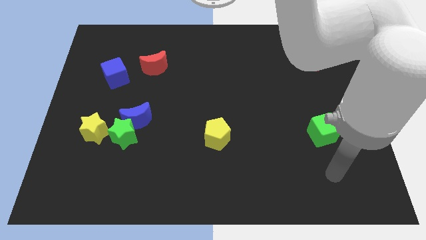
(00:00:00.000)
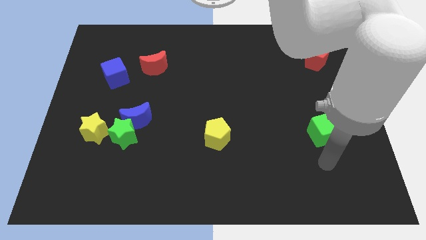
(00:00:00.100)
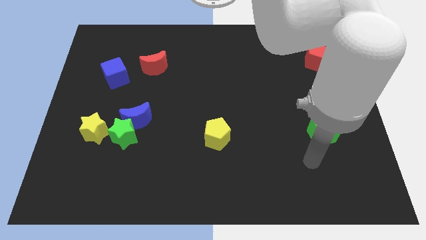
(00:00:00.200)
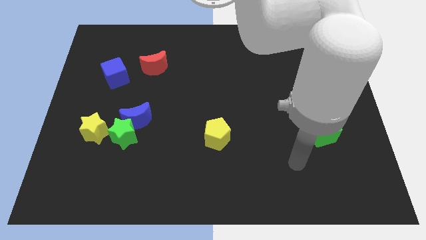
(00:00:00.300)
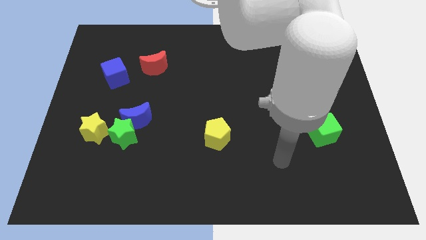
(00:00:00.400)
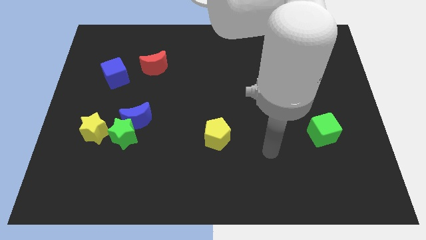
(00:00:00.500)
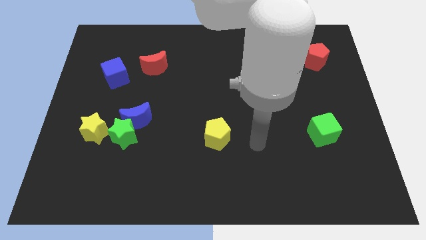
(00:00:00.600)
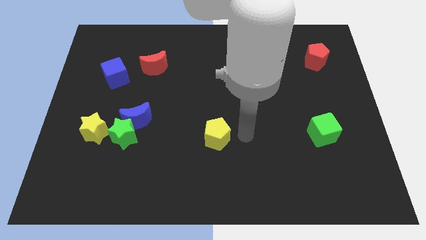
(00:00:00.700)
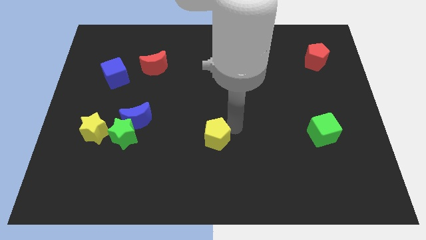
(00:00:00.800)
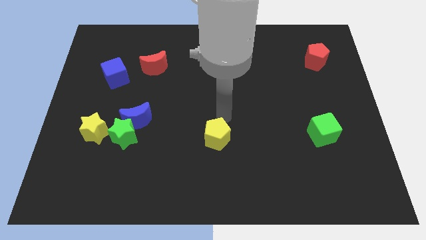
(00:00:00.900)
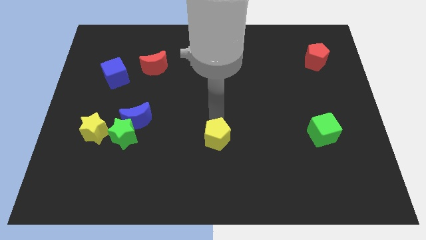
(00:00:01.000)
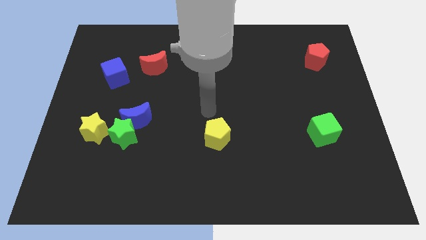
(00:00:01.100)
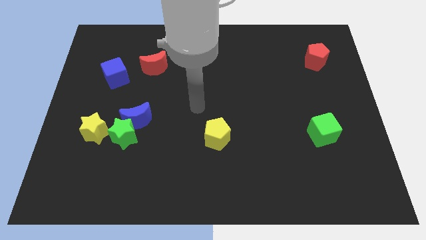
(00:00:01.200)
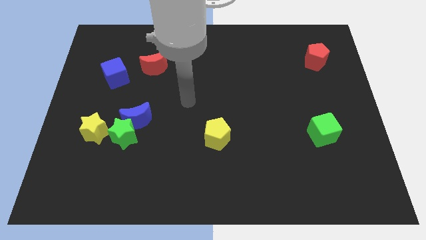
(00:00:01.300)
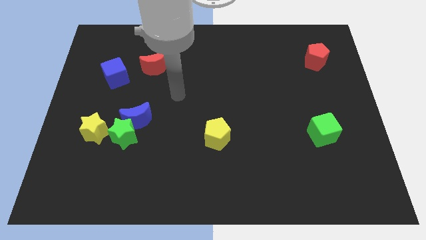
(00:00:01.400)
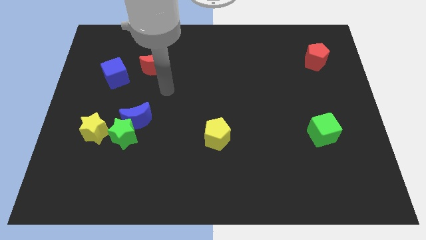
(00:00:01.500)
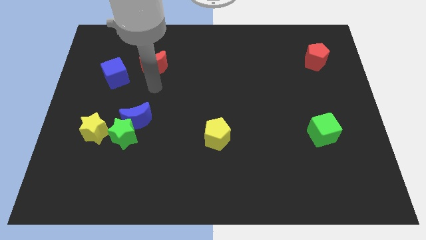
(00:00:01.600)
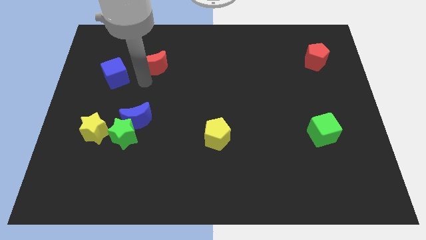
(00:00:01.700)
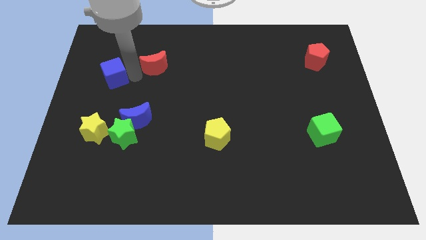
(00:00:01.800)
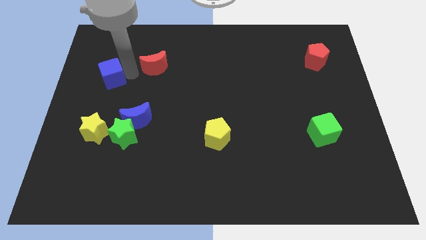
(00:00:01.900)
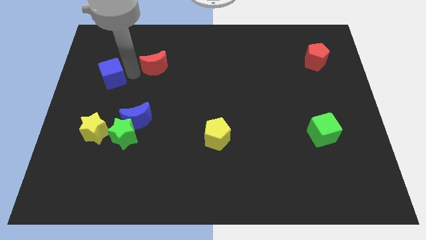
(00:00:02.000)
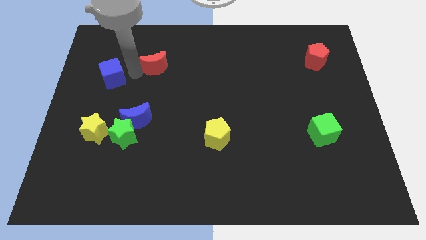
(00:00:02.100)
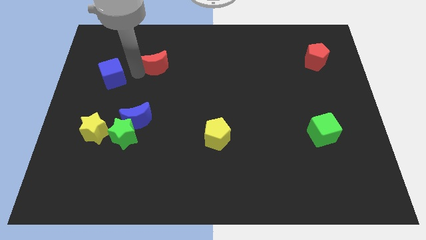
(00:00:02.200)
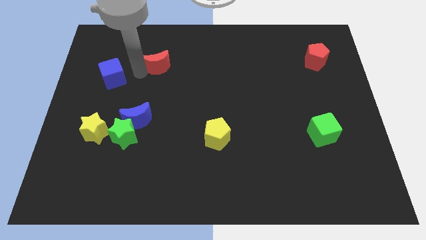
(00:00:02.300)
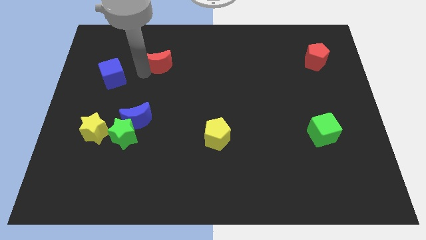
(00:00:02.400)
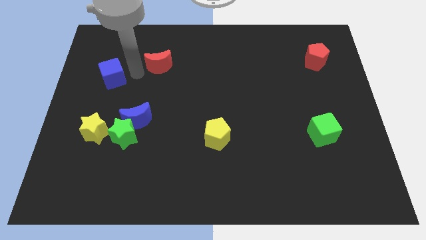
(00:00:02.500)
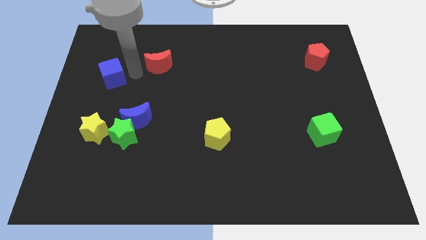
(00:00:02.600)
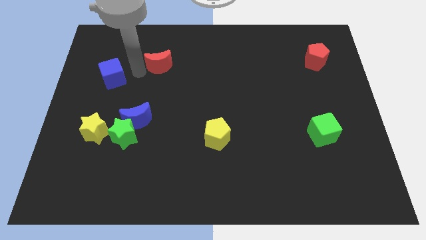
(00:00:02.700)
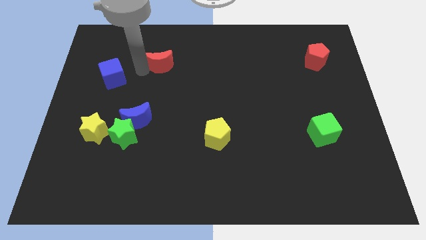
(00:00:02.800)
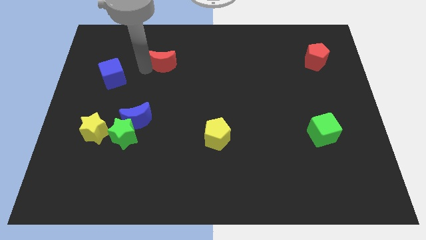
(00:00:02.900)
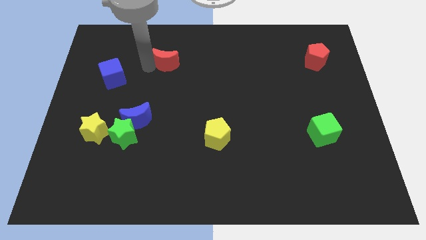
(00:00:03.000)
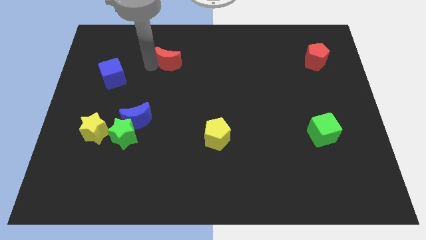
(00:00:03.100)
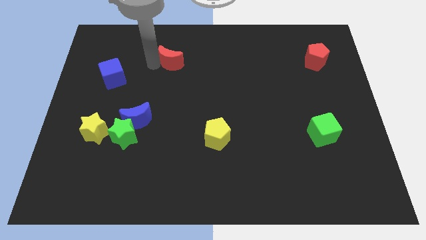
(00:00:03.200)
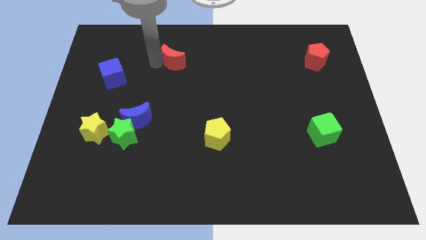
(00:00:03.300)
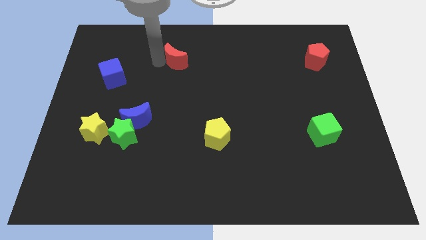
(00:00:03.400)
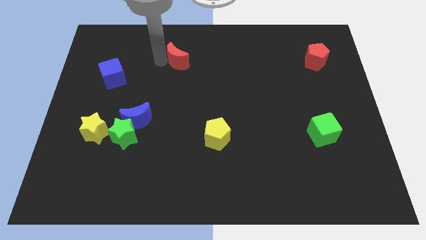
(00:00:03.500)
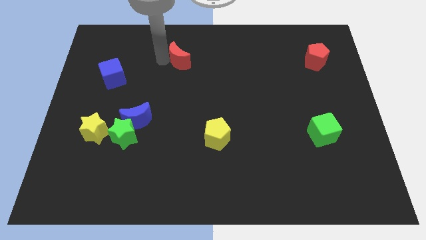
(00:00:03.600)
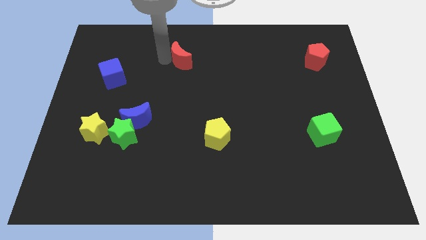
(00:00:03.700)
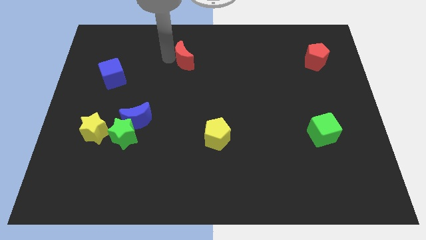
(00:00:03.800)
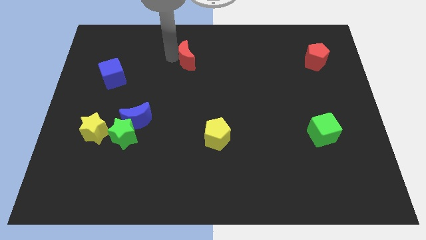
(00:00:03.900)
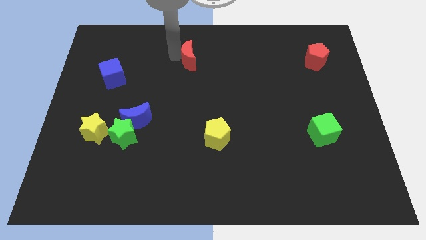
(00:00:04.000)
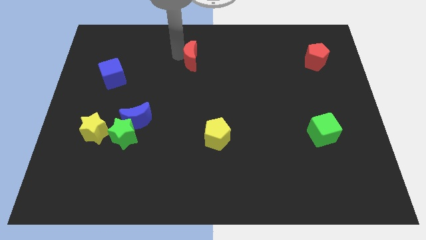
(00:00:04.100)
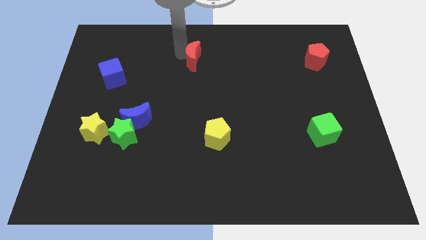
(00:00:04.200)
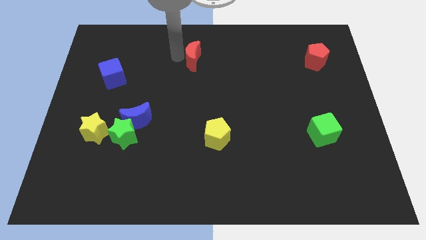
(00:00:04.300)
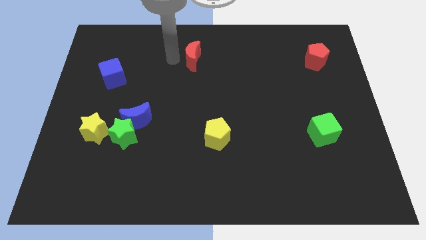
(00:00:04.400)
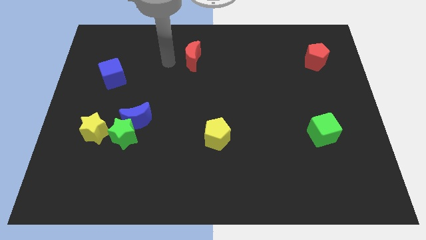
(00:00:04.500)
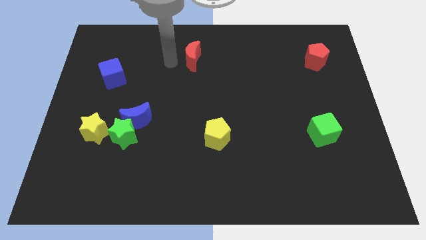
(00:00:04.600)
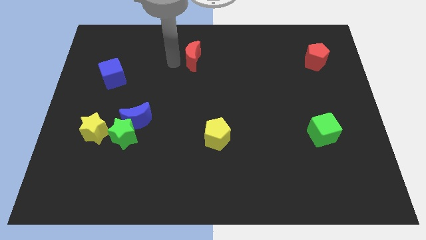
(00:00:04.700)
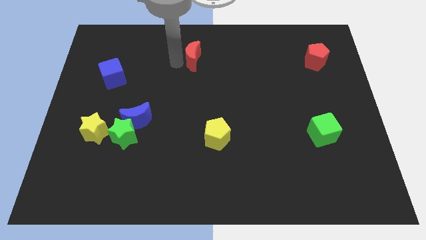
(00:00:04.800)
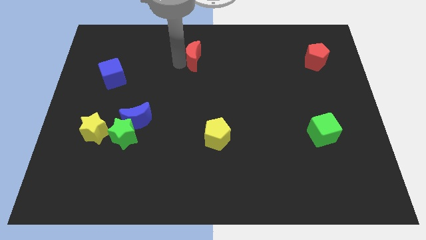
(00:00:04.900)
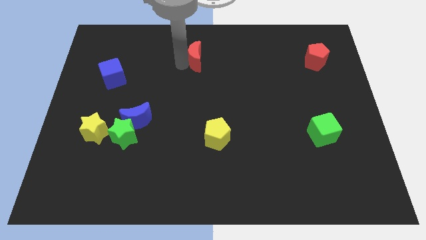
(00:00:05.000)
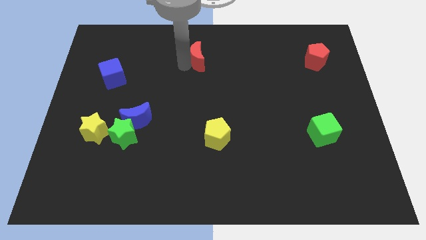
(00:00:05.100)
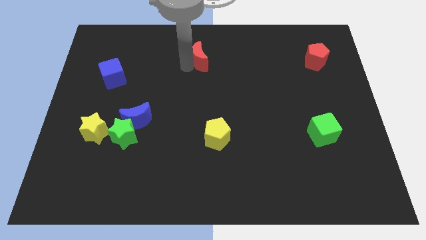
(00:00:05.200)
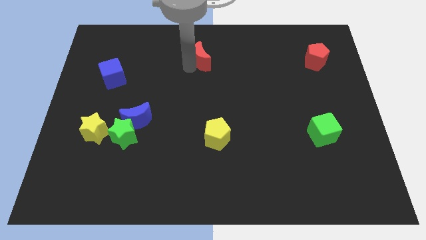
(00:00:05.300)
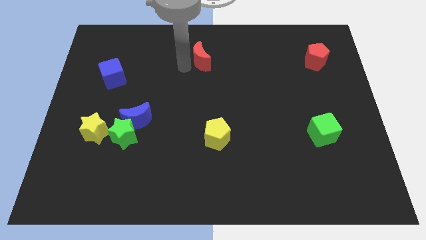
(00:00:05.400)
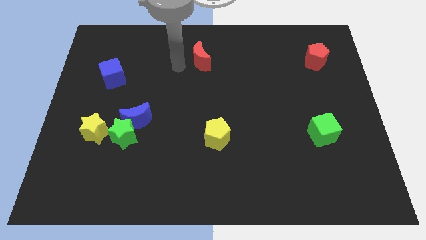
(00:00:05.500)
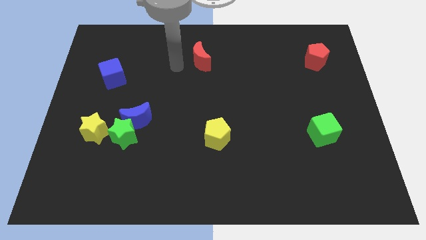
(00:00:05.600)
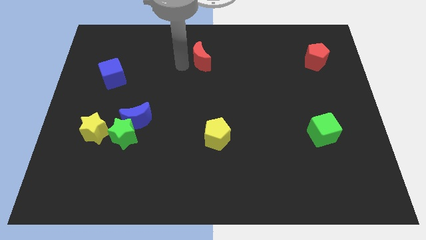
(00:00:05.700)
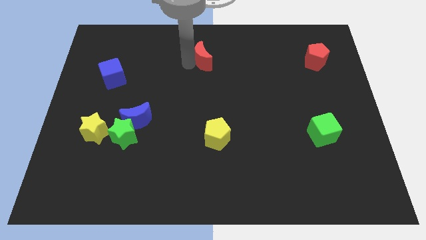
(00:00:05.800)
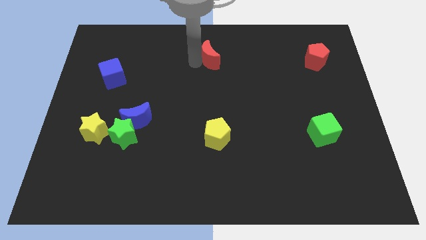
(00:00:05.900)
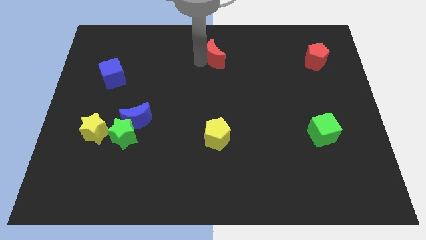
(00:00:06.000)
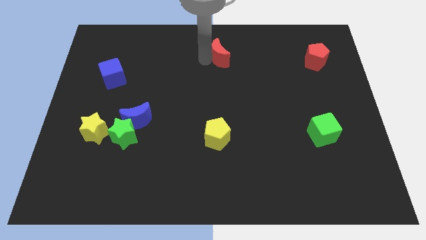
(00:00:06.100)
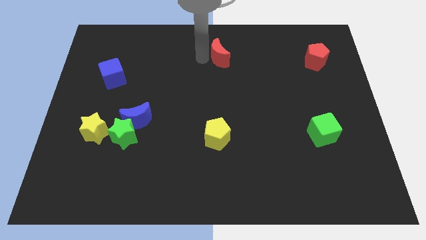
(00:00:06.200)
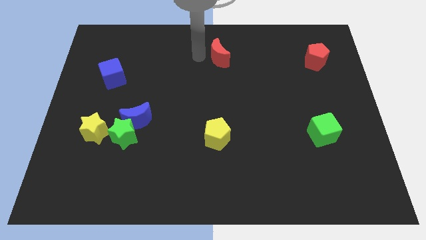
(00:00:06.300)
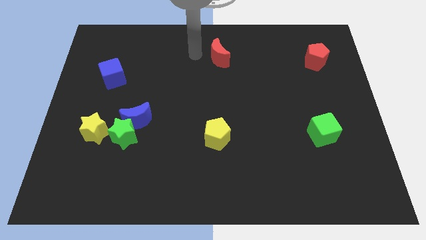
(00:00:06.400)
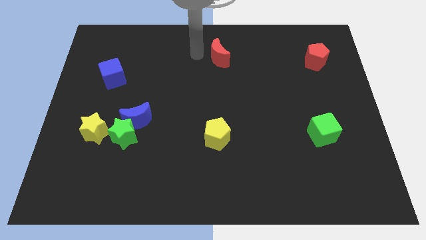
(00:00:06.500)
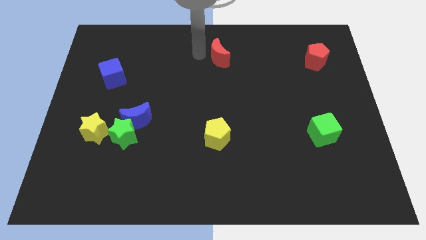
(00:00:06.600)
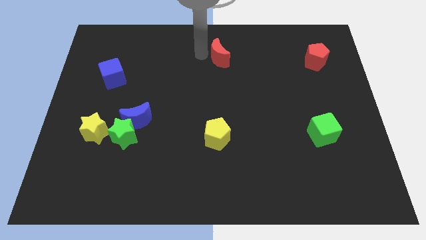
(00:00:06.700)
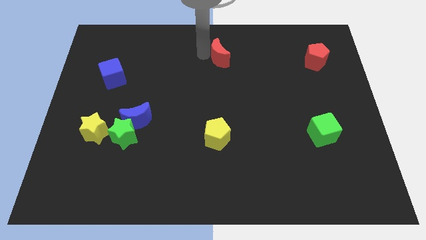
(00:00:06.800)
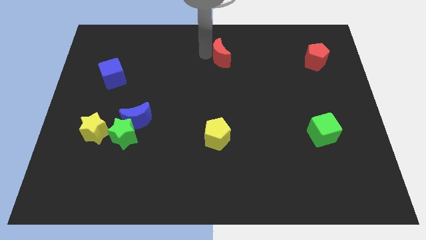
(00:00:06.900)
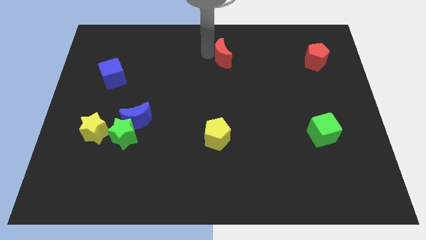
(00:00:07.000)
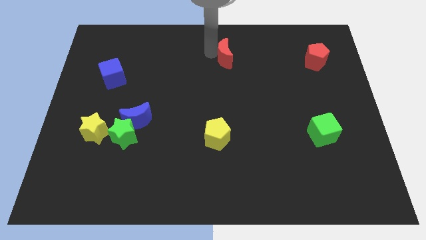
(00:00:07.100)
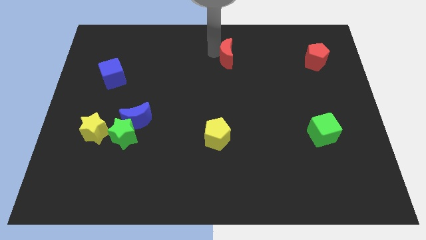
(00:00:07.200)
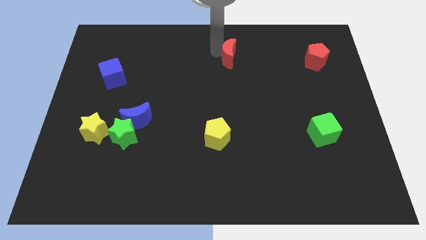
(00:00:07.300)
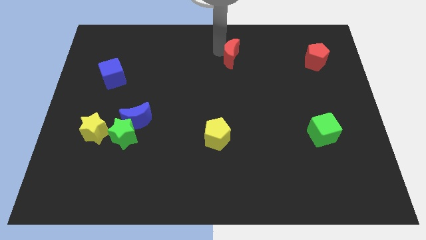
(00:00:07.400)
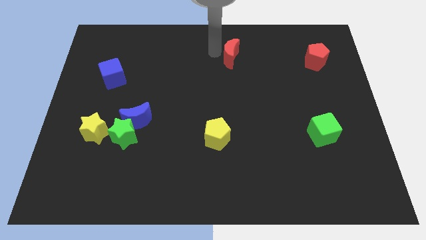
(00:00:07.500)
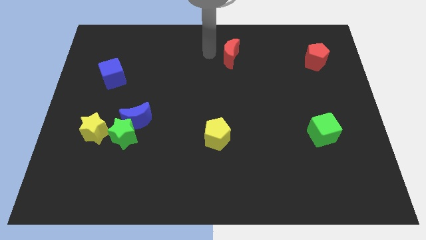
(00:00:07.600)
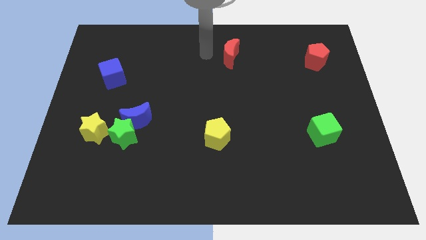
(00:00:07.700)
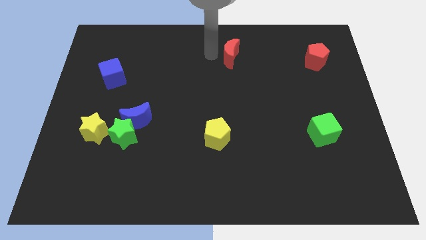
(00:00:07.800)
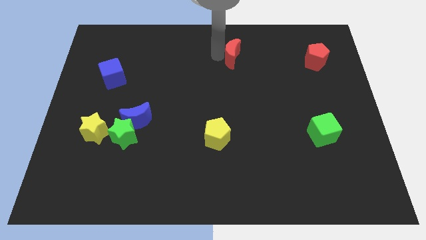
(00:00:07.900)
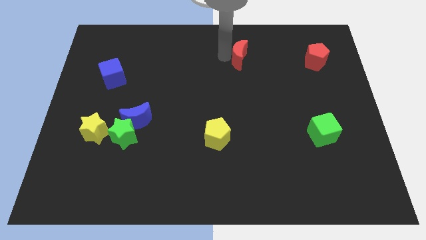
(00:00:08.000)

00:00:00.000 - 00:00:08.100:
move the red moon right

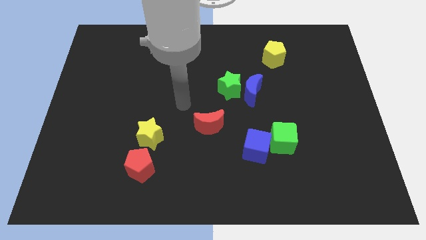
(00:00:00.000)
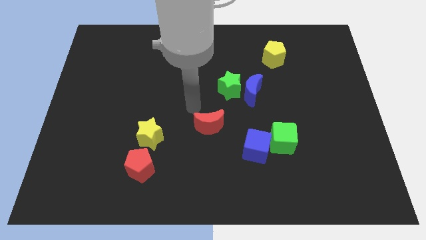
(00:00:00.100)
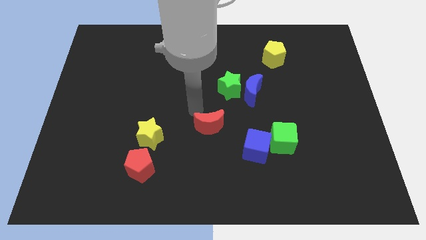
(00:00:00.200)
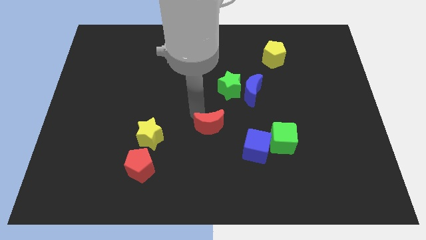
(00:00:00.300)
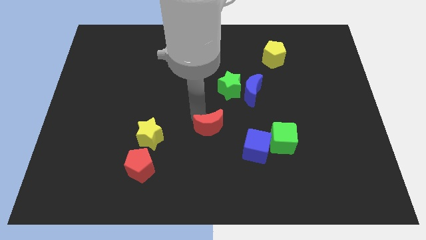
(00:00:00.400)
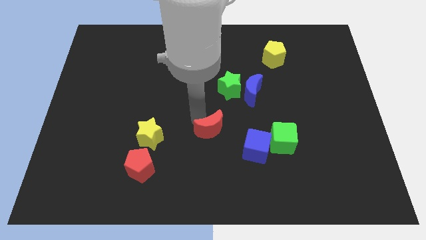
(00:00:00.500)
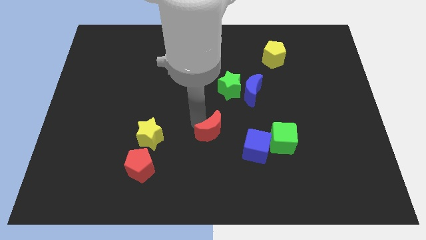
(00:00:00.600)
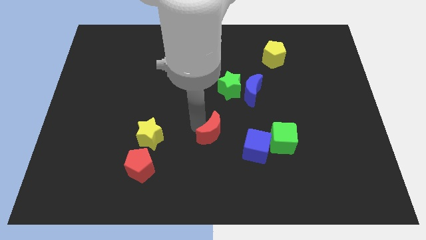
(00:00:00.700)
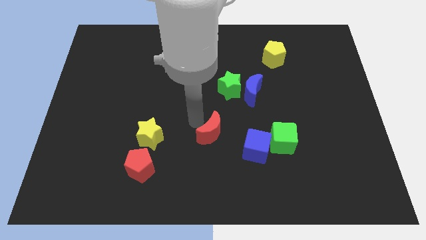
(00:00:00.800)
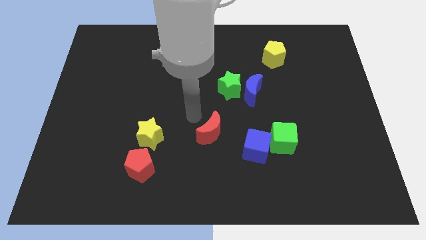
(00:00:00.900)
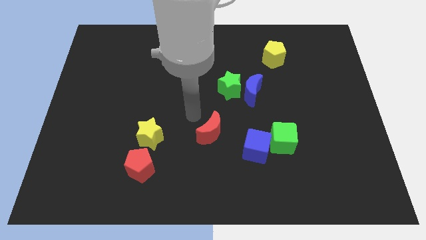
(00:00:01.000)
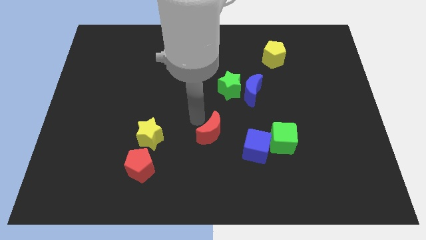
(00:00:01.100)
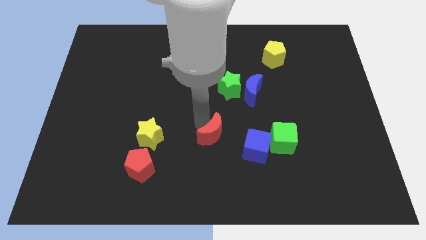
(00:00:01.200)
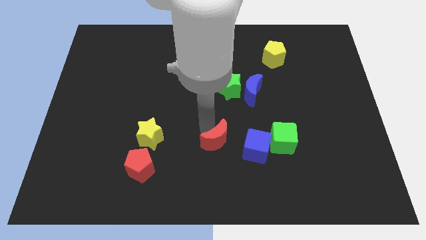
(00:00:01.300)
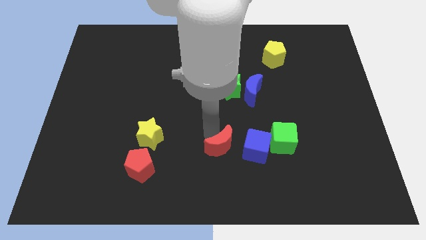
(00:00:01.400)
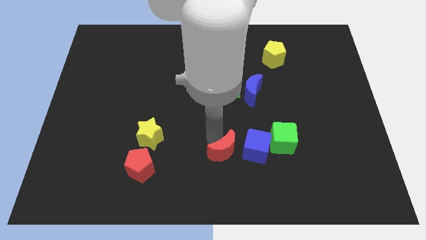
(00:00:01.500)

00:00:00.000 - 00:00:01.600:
move the red moon a bit down and to the right
